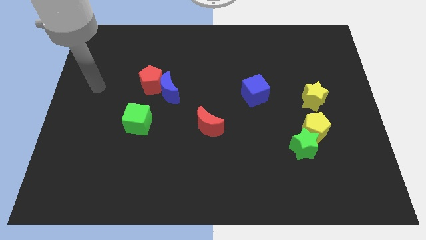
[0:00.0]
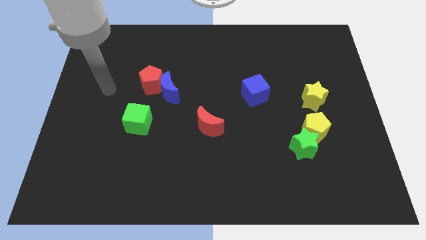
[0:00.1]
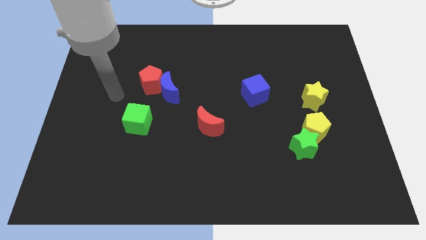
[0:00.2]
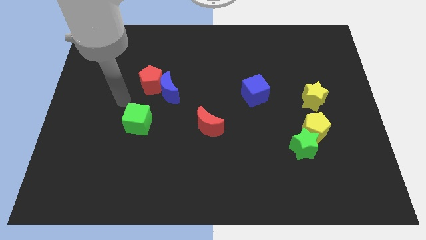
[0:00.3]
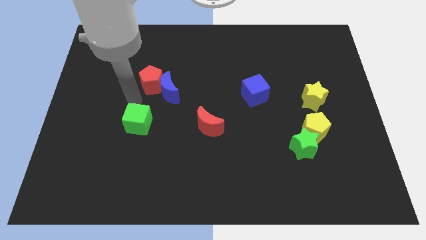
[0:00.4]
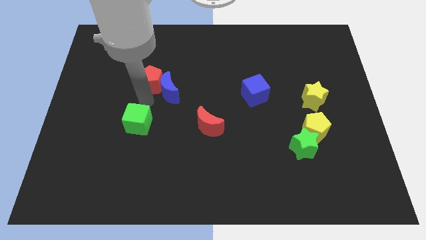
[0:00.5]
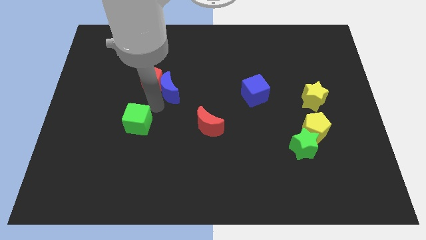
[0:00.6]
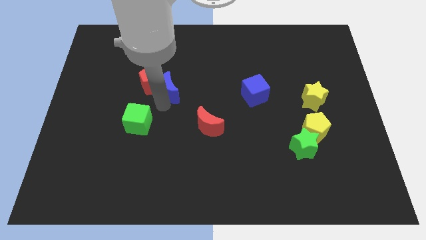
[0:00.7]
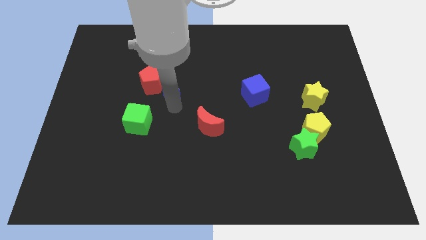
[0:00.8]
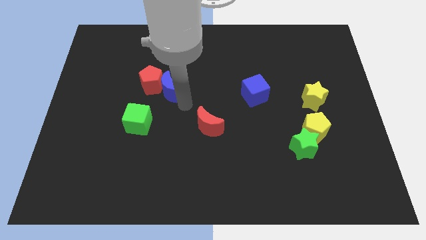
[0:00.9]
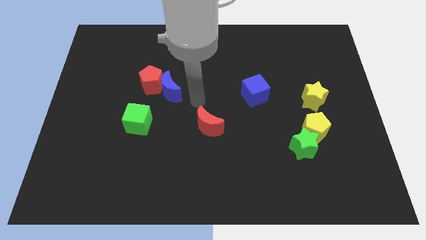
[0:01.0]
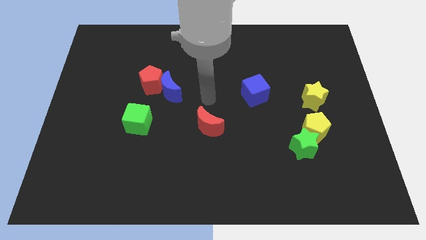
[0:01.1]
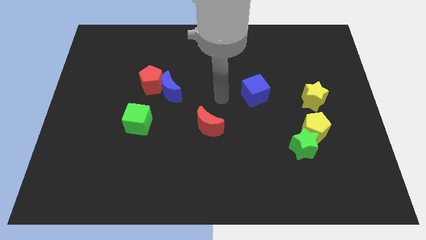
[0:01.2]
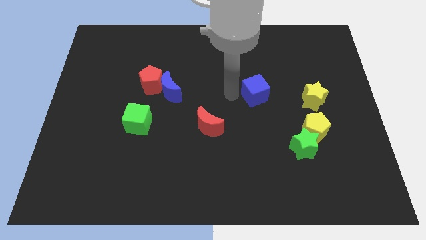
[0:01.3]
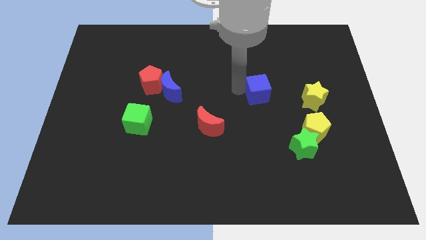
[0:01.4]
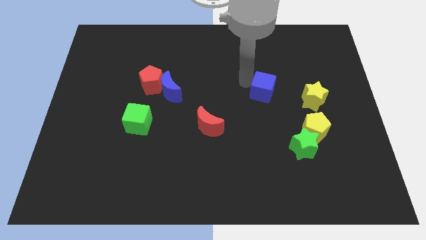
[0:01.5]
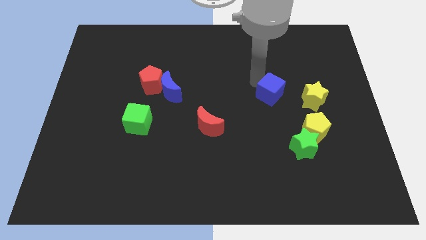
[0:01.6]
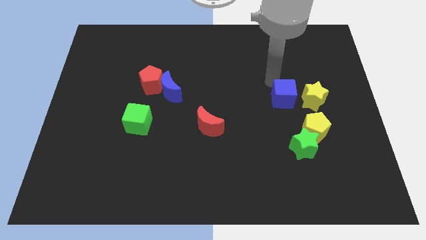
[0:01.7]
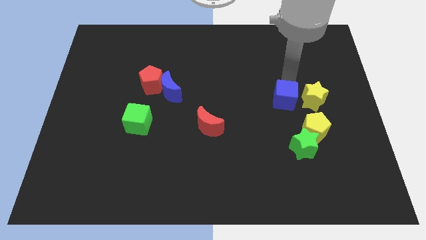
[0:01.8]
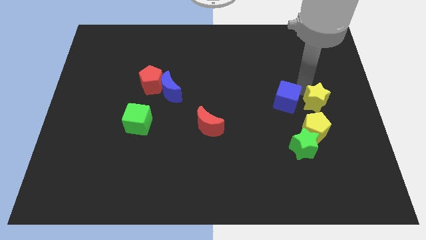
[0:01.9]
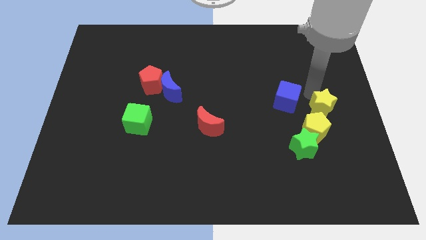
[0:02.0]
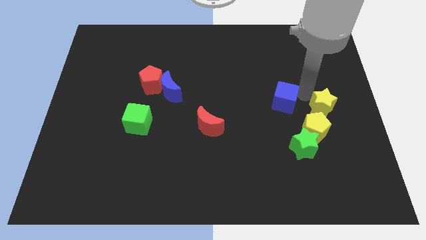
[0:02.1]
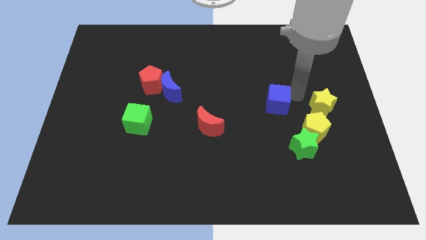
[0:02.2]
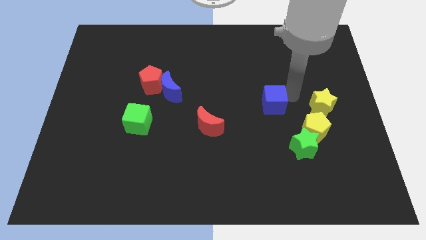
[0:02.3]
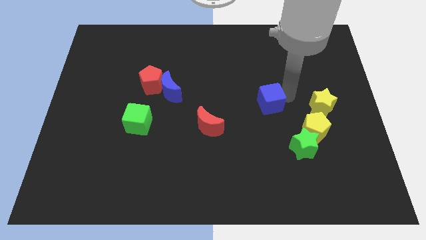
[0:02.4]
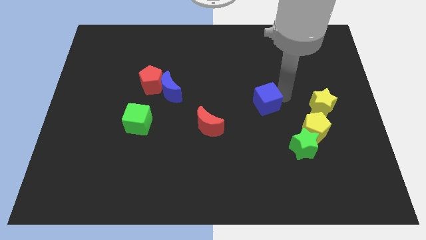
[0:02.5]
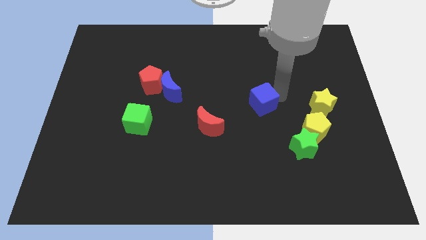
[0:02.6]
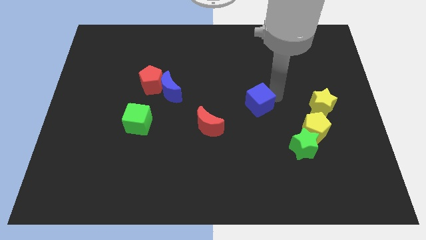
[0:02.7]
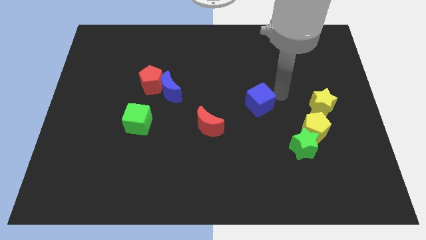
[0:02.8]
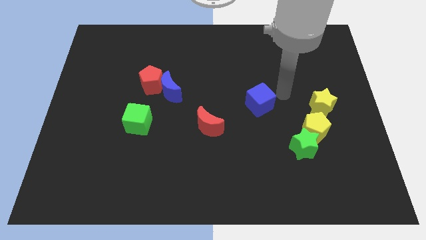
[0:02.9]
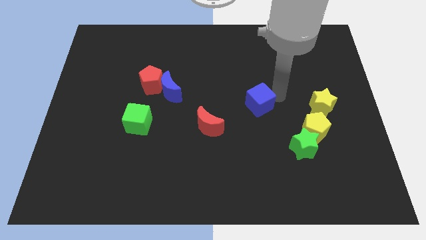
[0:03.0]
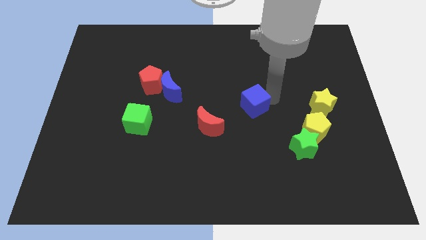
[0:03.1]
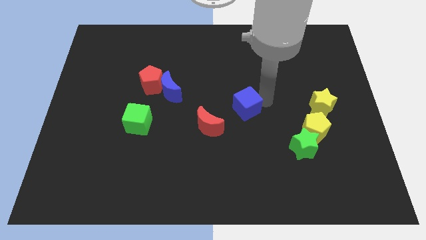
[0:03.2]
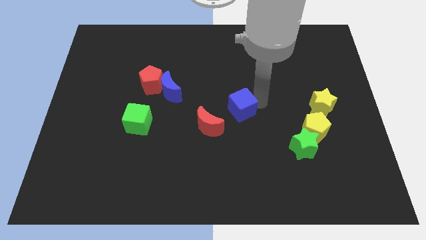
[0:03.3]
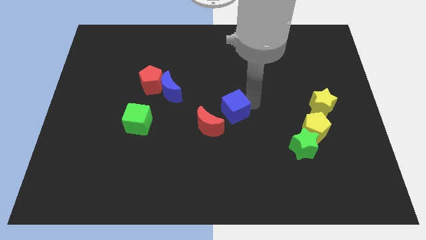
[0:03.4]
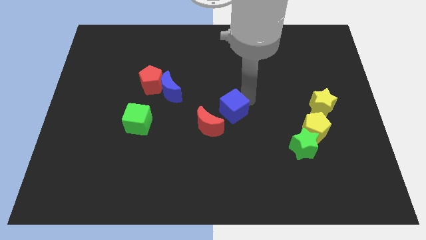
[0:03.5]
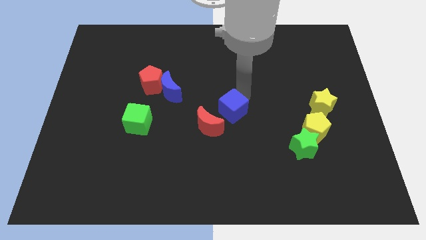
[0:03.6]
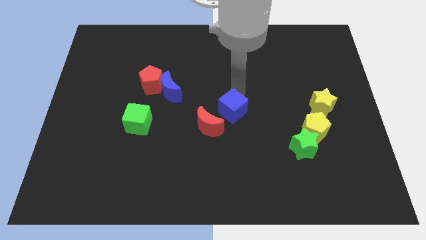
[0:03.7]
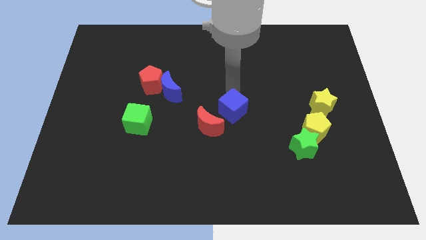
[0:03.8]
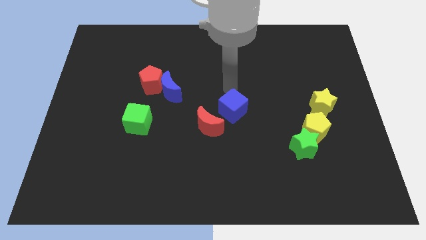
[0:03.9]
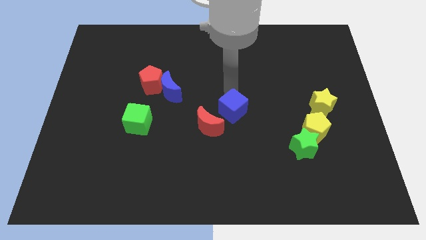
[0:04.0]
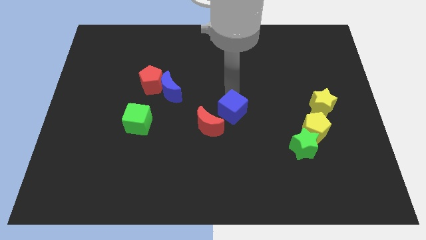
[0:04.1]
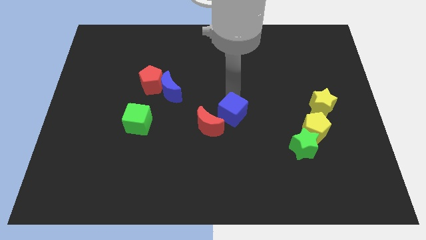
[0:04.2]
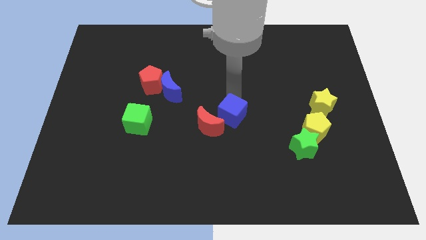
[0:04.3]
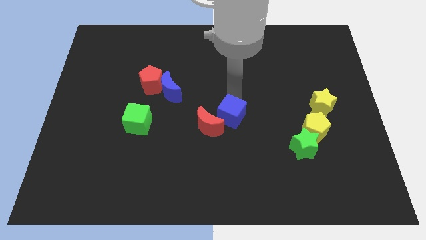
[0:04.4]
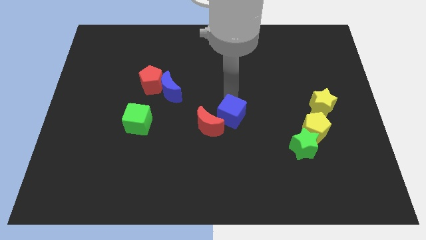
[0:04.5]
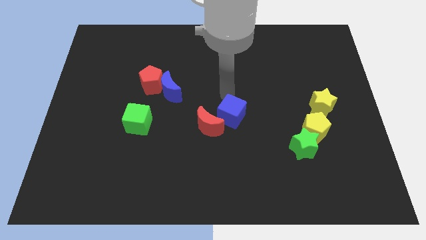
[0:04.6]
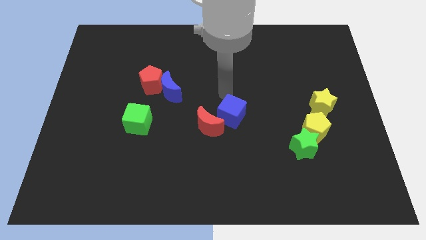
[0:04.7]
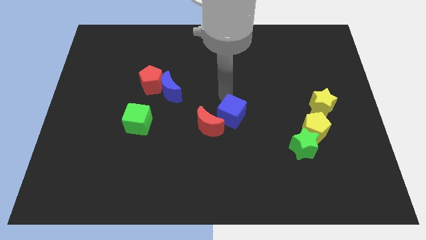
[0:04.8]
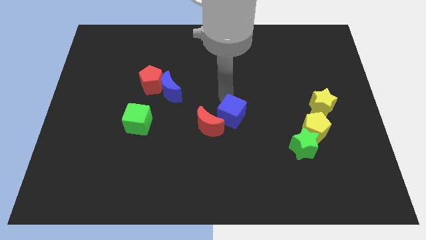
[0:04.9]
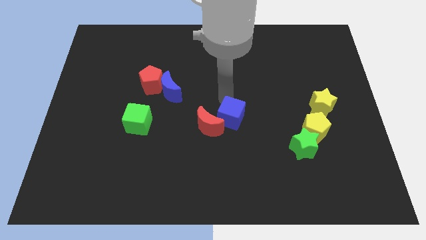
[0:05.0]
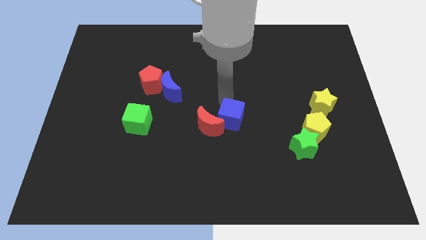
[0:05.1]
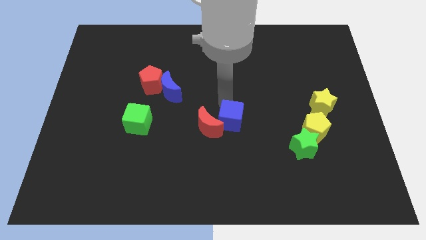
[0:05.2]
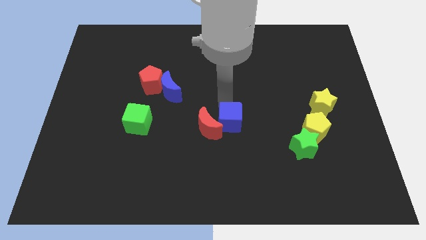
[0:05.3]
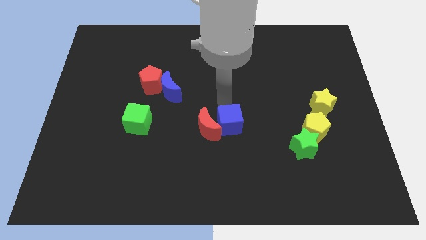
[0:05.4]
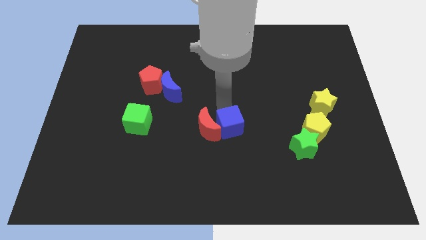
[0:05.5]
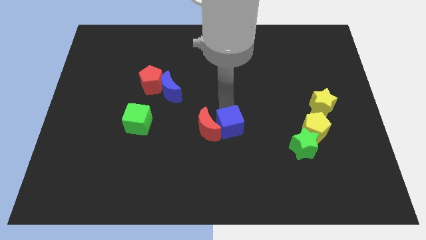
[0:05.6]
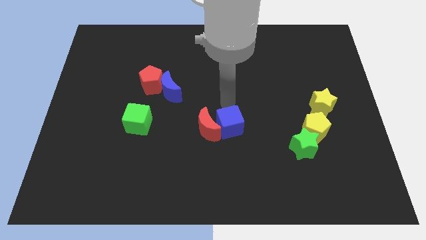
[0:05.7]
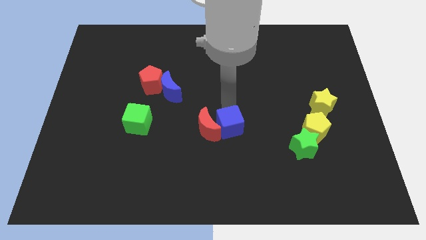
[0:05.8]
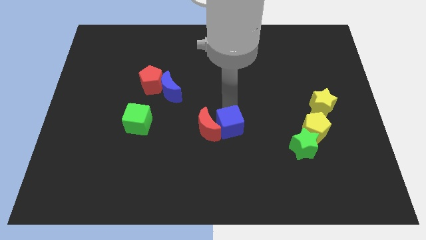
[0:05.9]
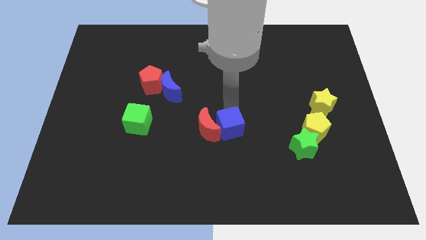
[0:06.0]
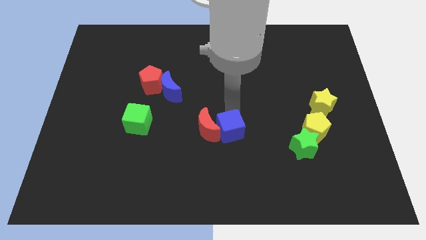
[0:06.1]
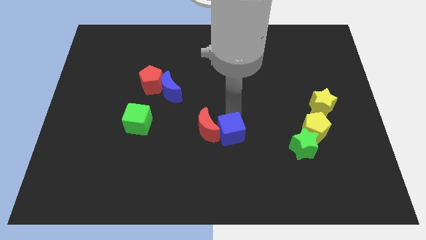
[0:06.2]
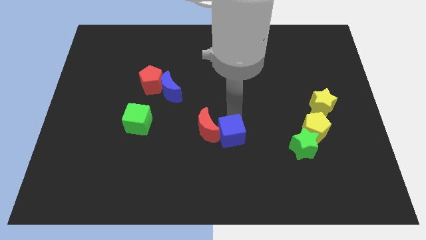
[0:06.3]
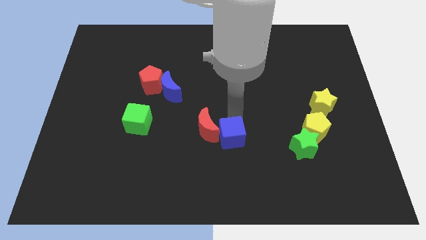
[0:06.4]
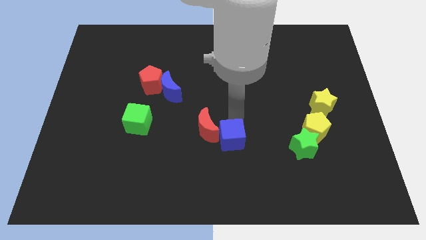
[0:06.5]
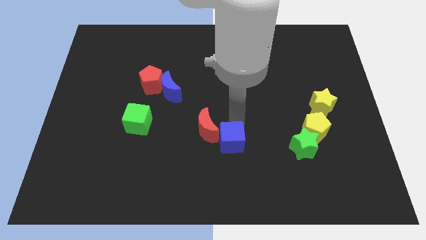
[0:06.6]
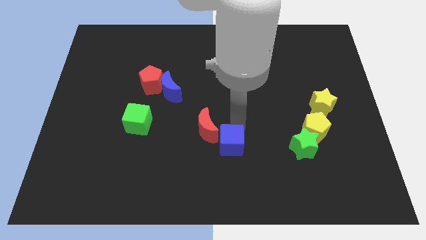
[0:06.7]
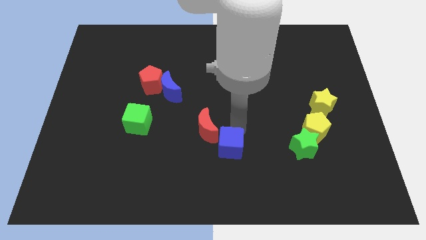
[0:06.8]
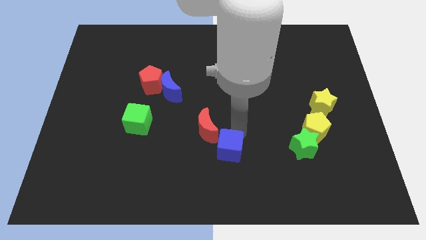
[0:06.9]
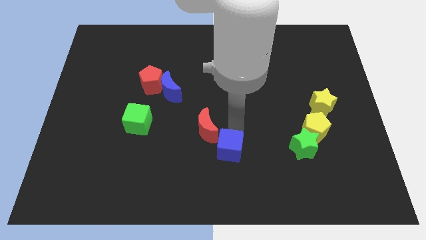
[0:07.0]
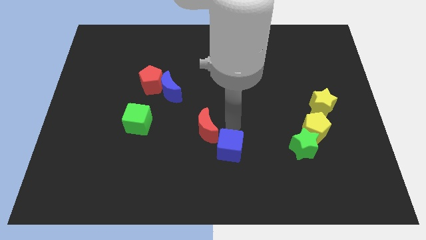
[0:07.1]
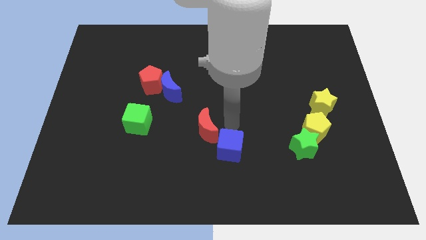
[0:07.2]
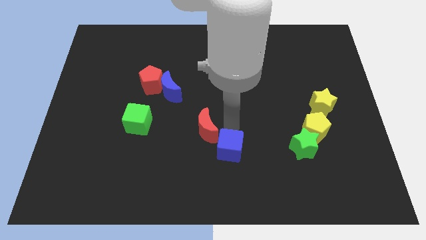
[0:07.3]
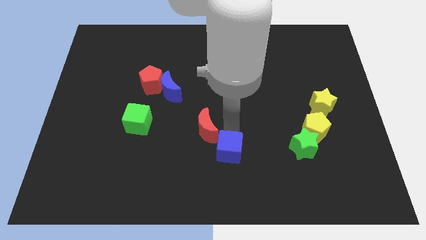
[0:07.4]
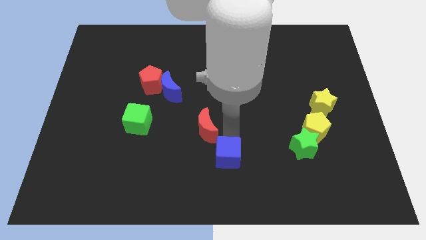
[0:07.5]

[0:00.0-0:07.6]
slide the blue cube to the bottom side
